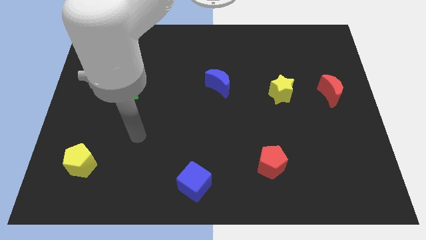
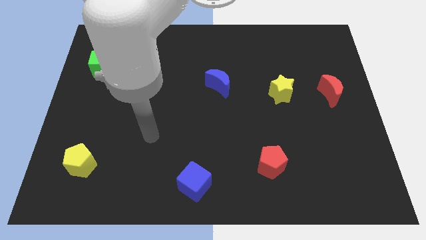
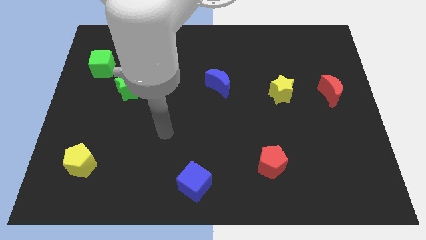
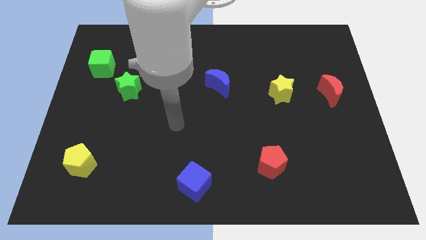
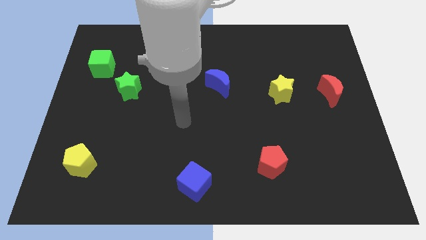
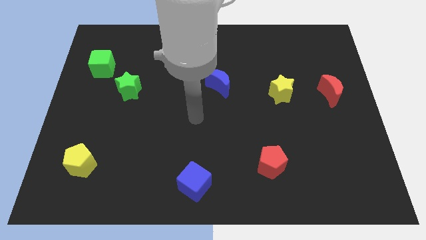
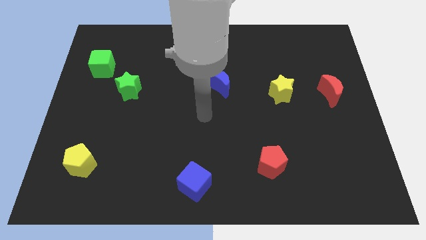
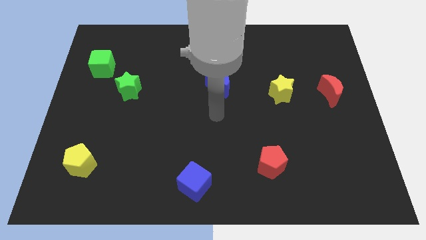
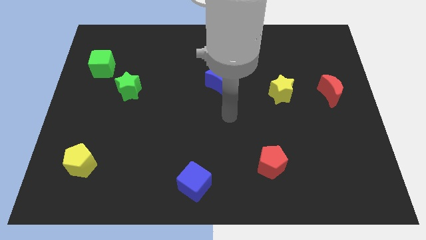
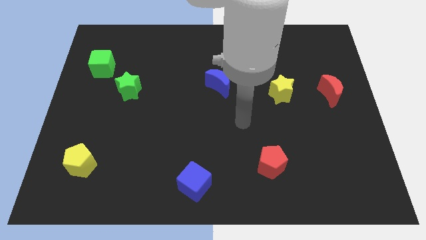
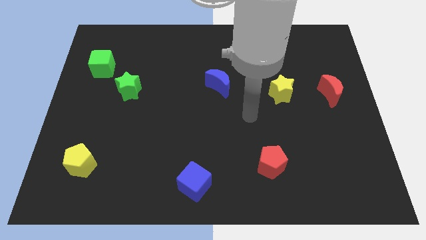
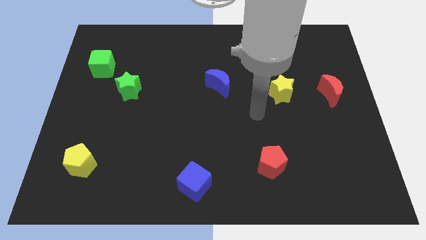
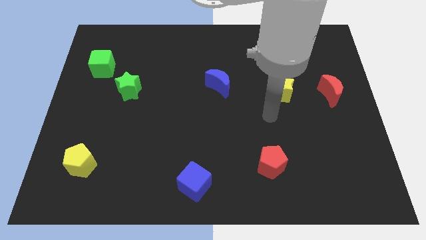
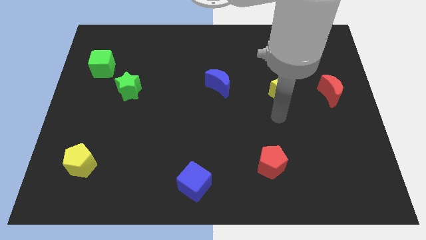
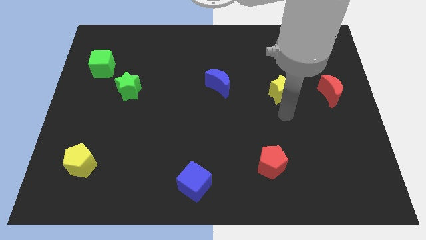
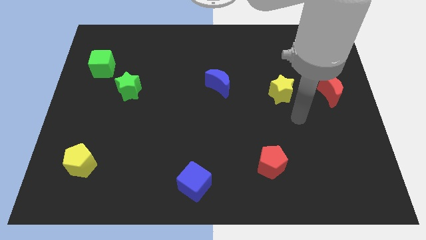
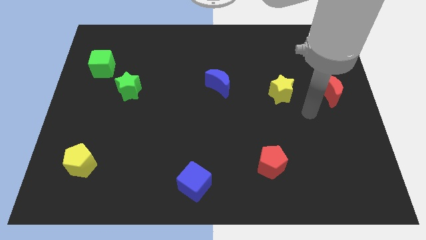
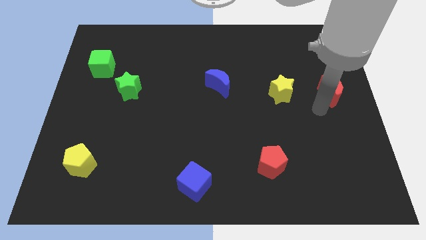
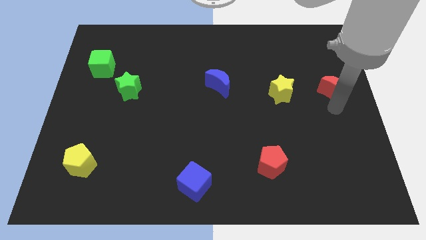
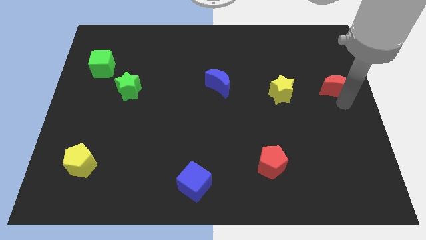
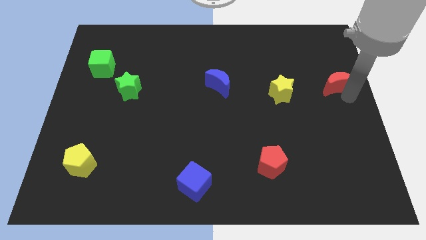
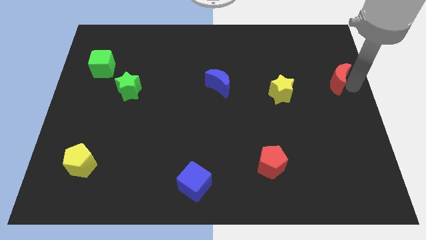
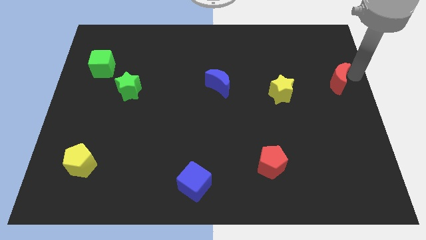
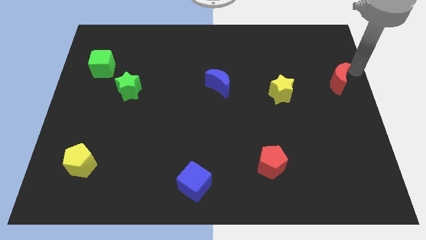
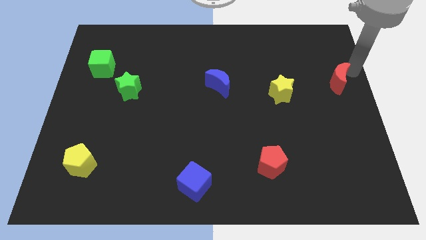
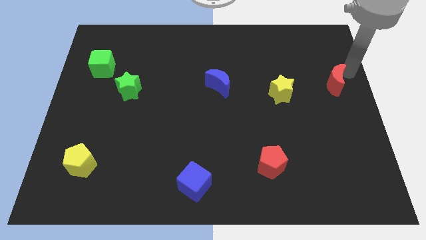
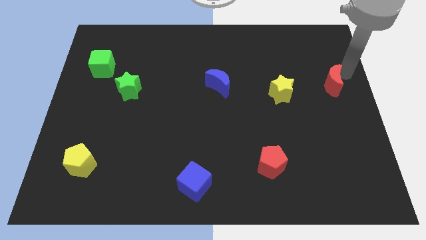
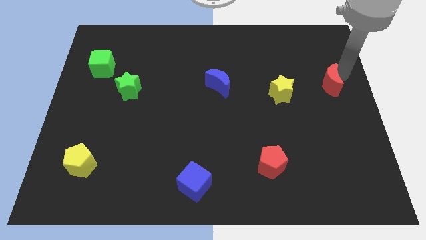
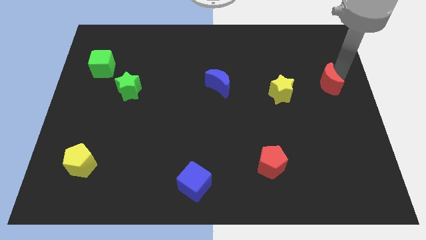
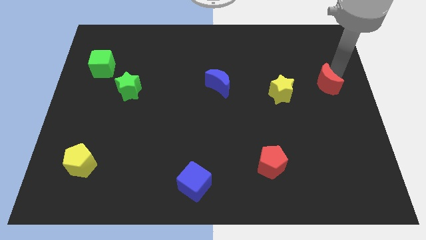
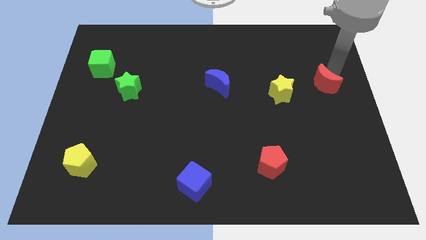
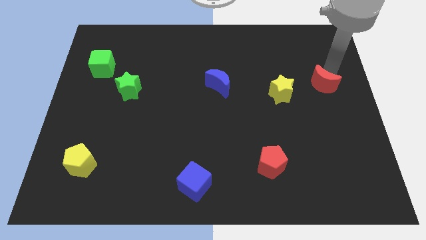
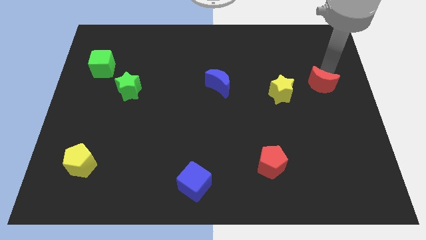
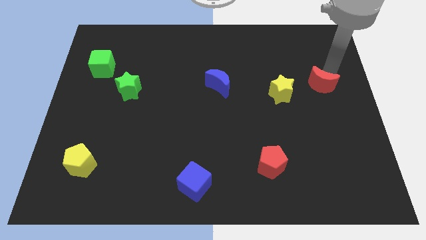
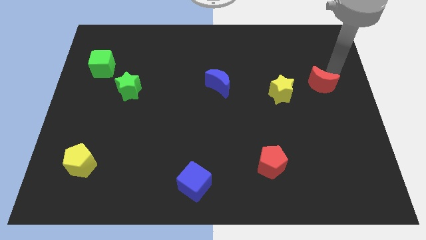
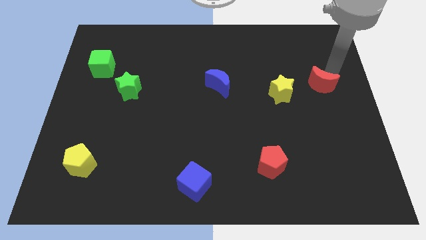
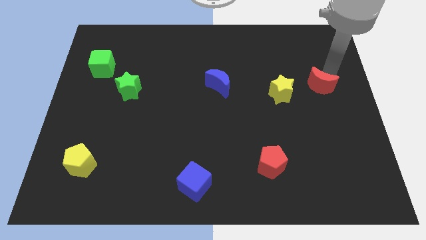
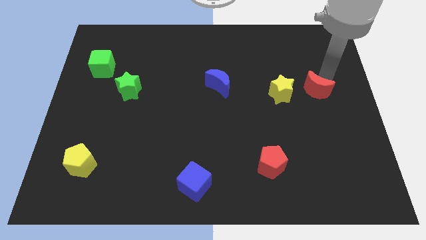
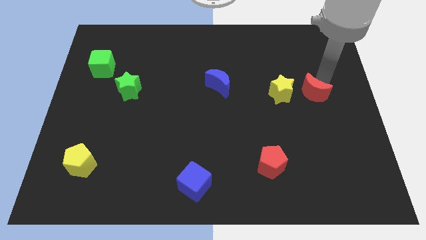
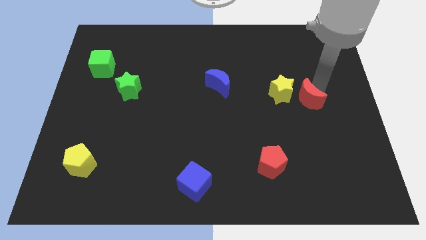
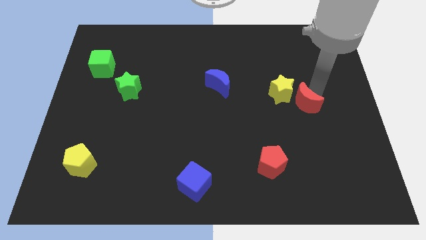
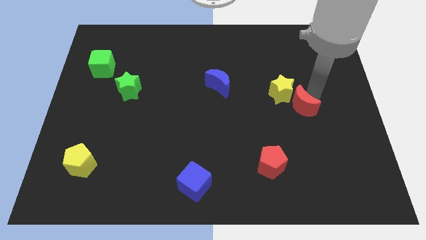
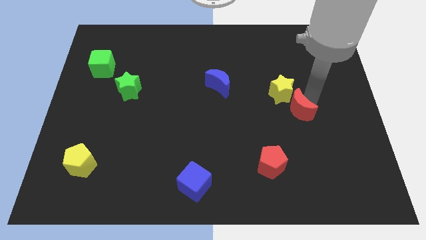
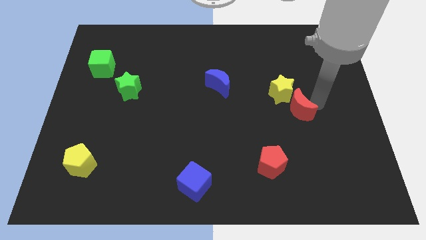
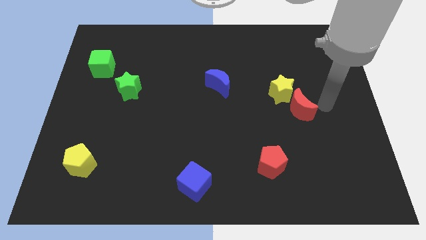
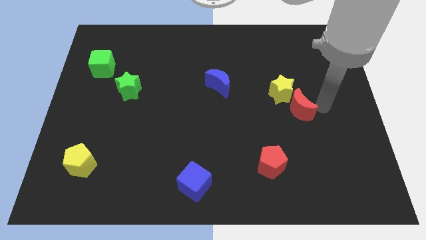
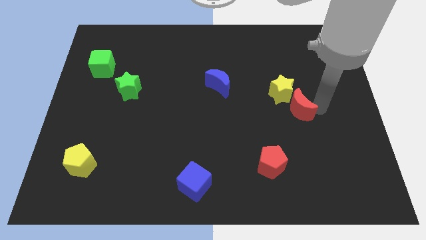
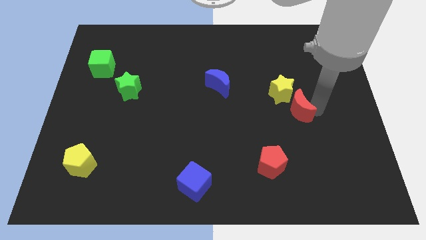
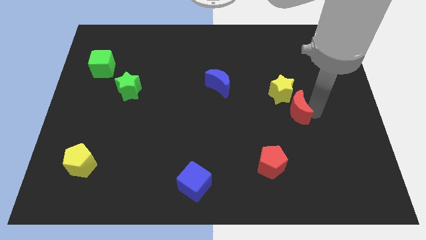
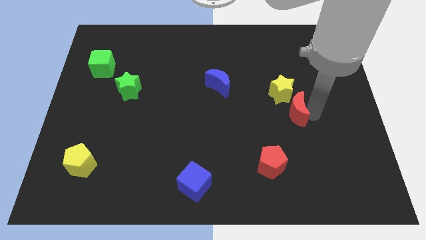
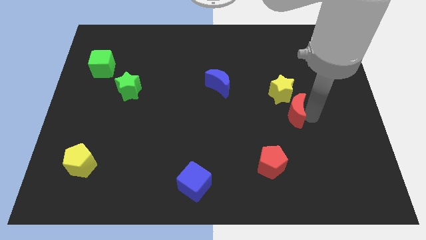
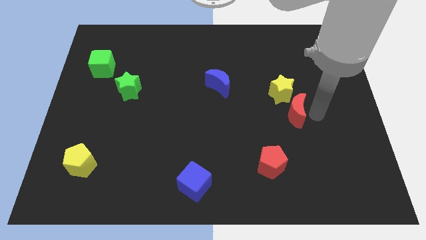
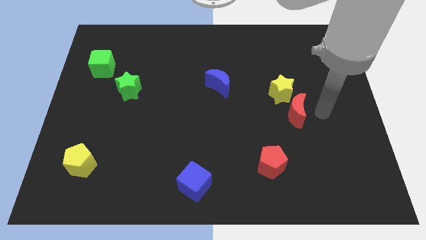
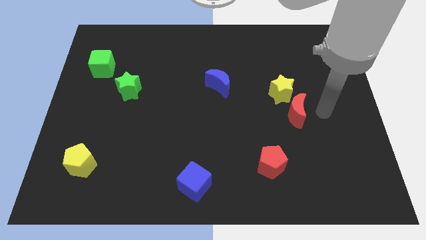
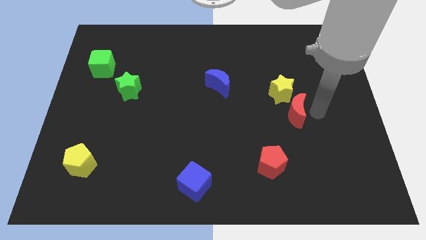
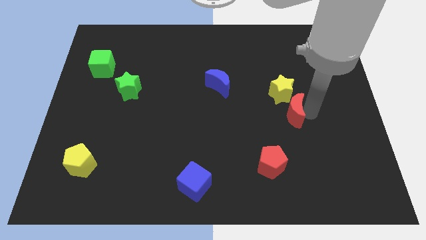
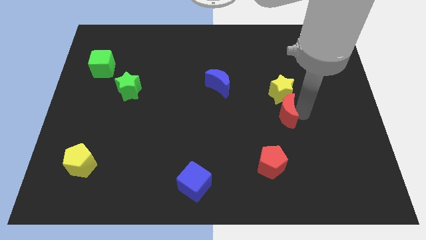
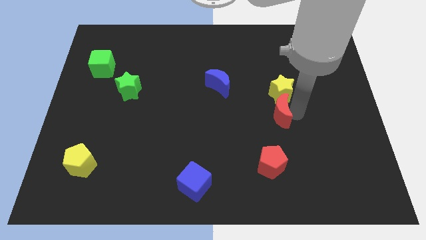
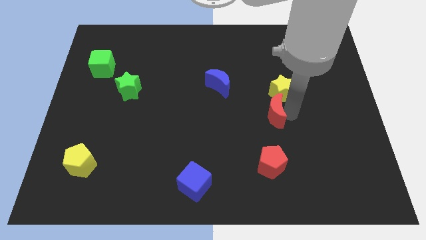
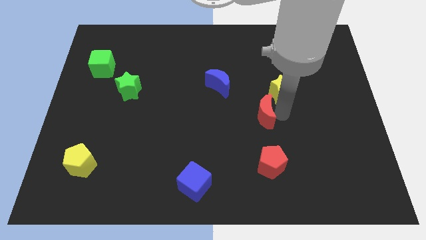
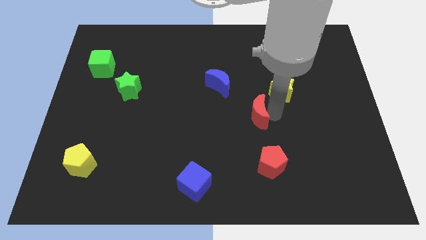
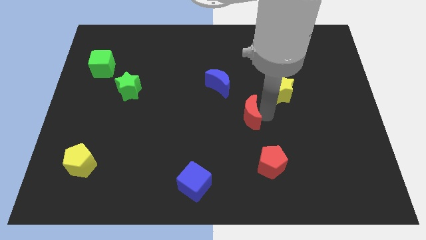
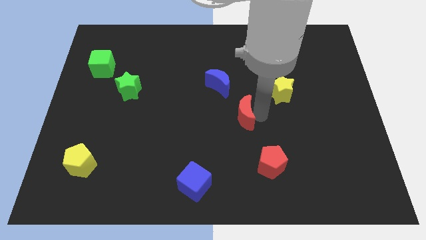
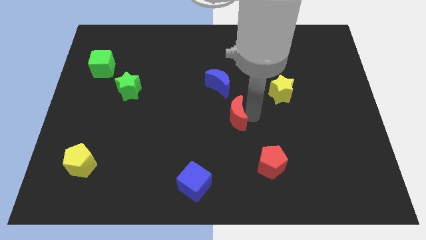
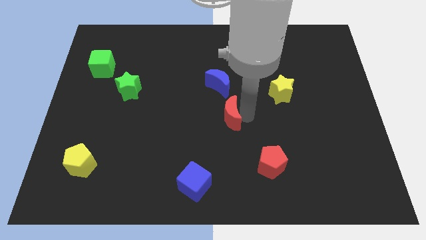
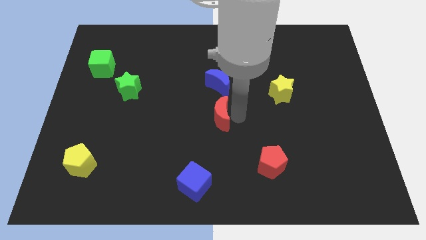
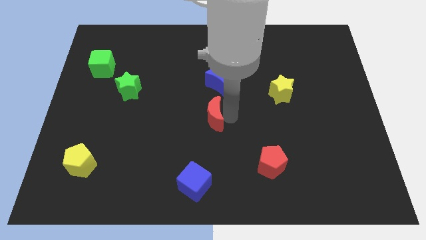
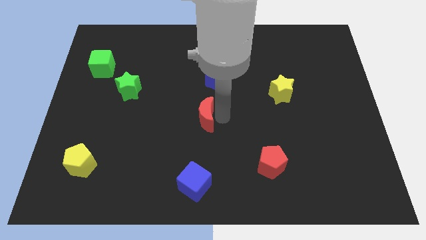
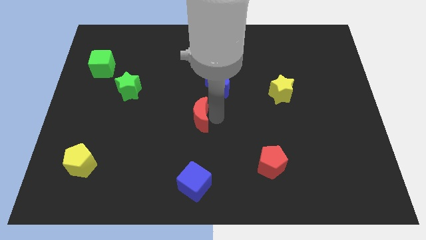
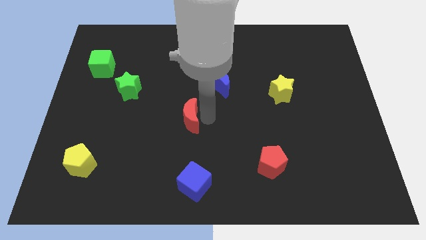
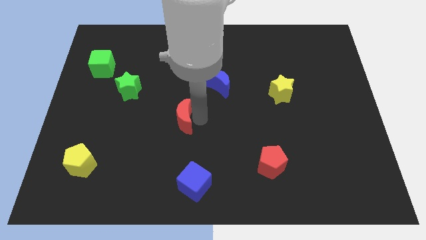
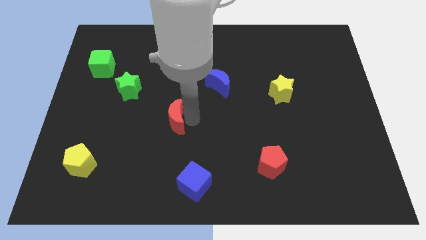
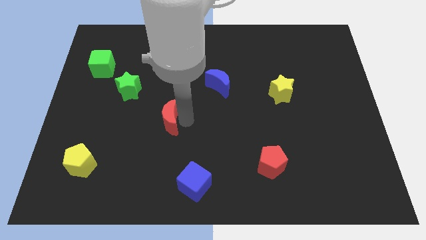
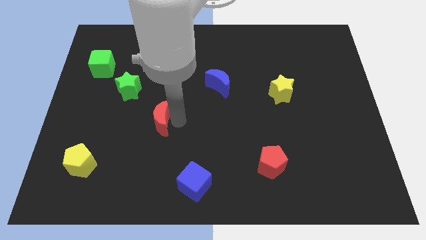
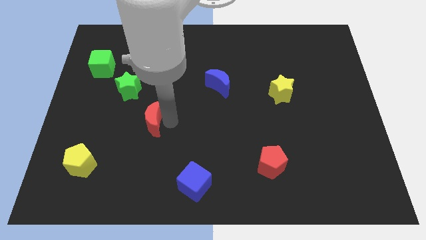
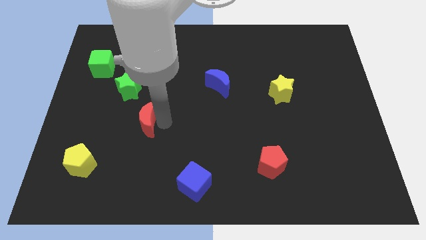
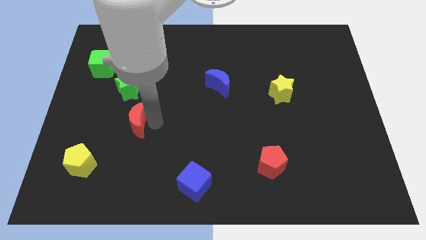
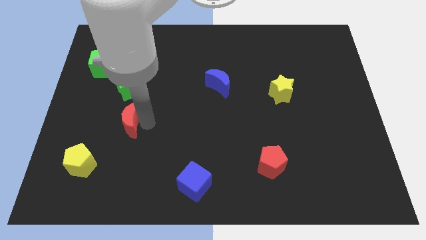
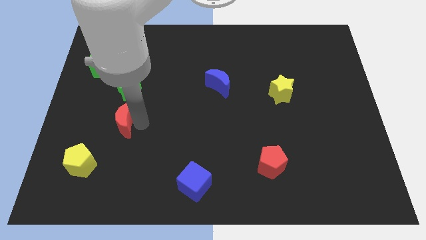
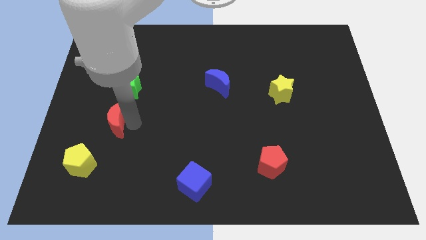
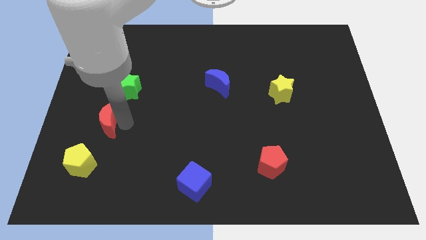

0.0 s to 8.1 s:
push the red moon above the yellow pentagon
